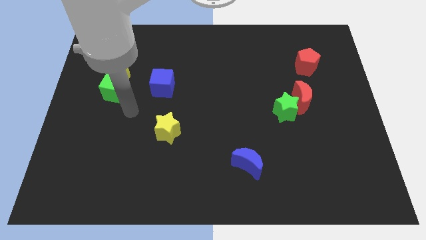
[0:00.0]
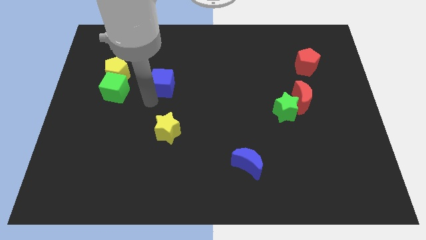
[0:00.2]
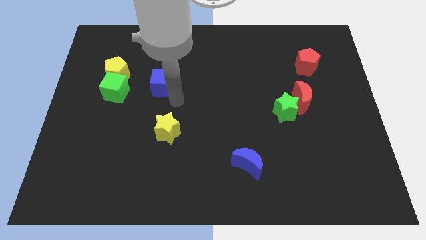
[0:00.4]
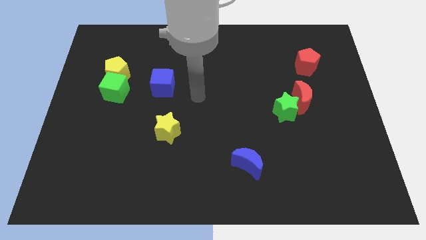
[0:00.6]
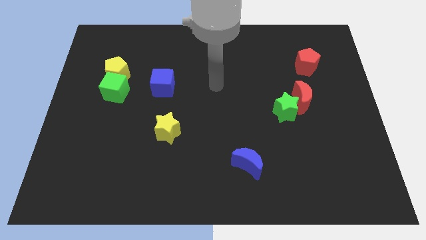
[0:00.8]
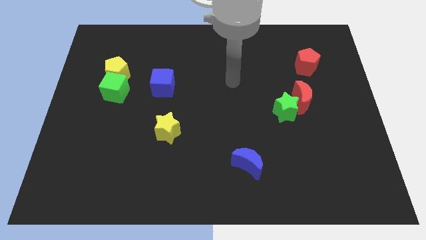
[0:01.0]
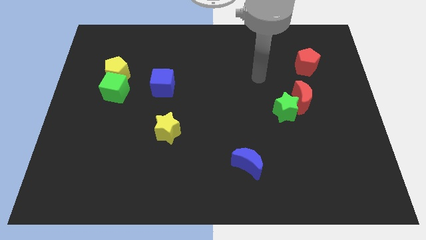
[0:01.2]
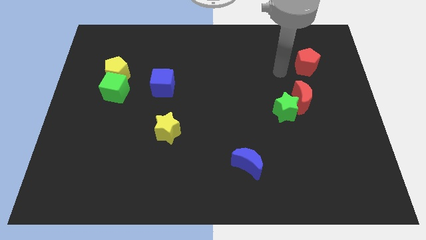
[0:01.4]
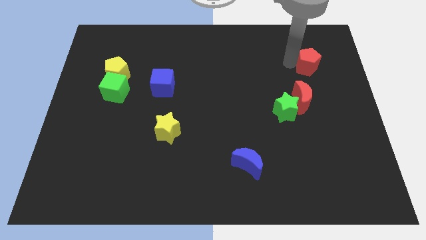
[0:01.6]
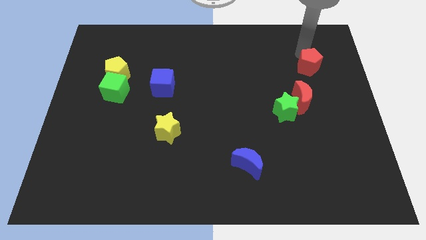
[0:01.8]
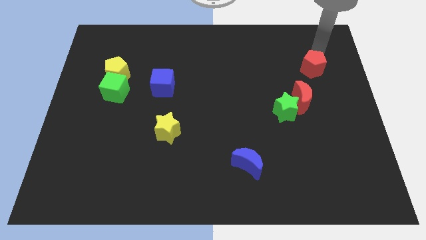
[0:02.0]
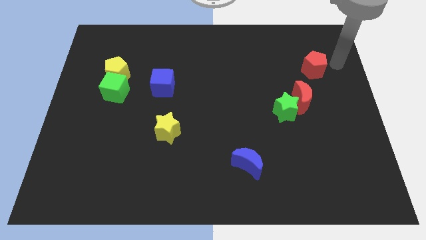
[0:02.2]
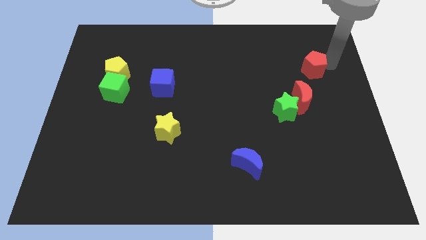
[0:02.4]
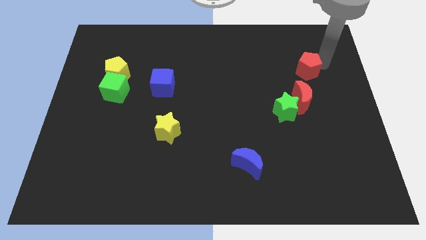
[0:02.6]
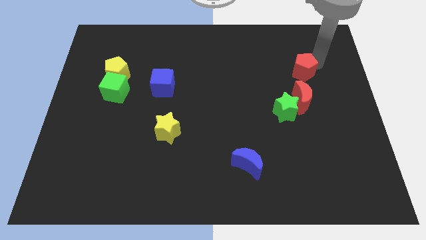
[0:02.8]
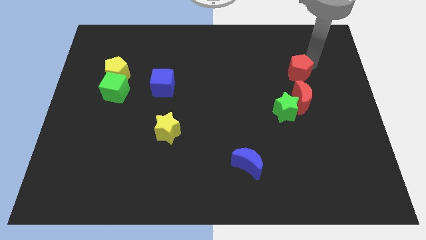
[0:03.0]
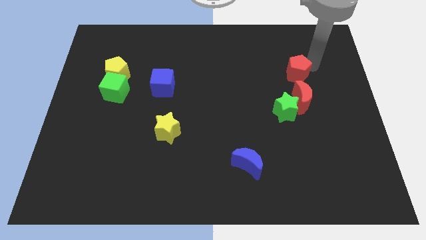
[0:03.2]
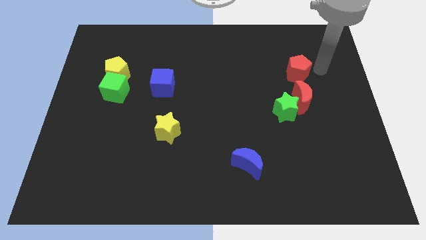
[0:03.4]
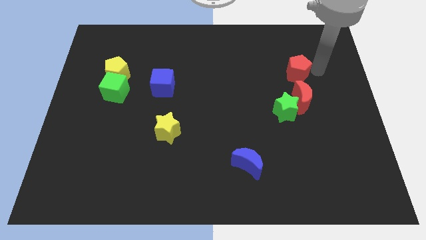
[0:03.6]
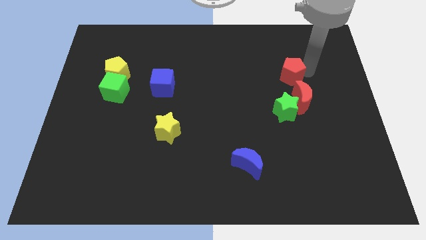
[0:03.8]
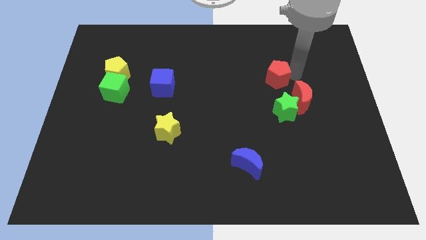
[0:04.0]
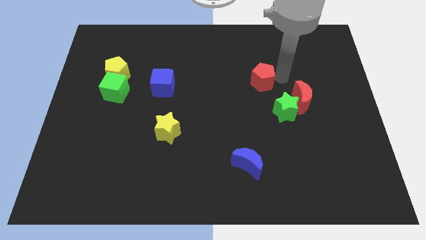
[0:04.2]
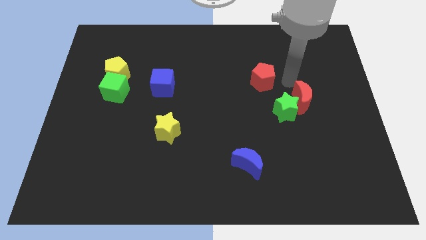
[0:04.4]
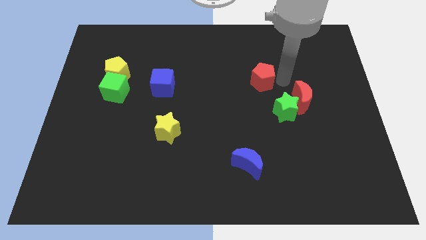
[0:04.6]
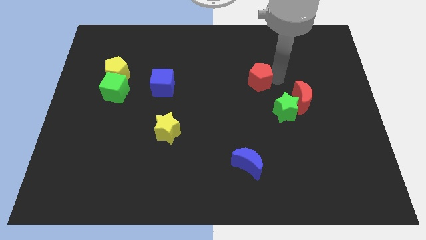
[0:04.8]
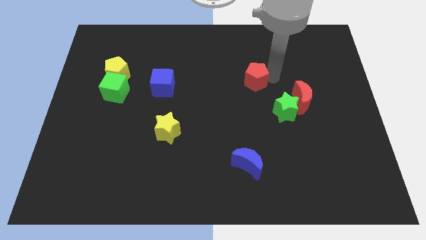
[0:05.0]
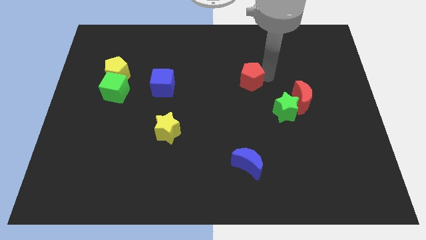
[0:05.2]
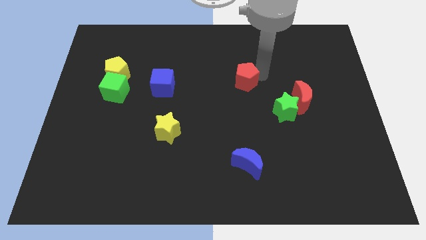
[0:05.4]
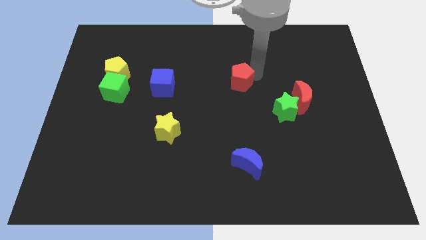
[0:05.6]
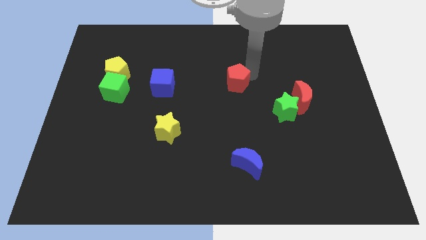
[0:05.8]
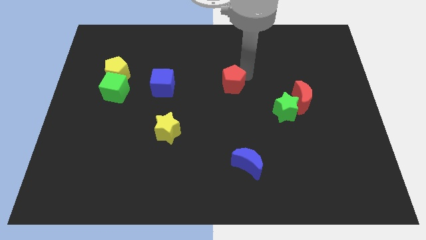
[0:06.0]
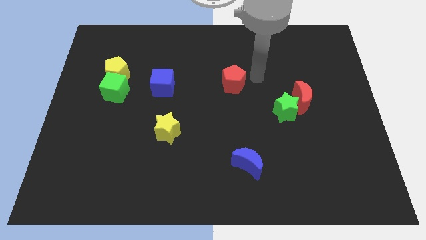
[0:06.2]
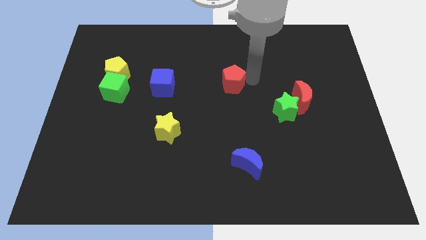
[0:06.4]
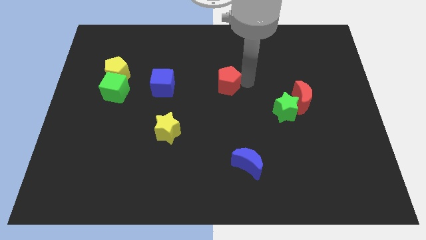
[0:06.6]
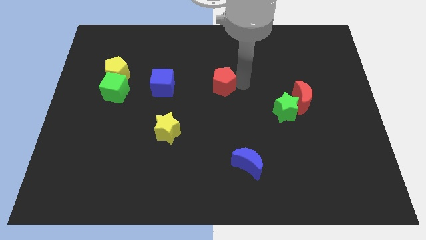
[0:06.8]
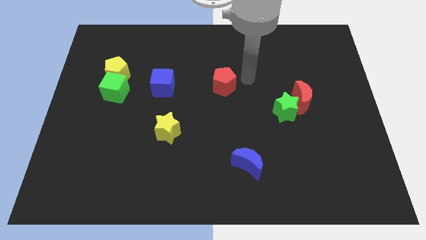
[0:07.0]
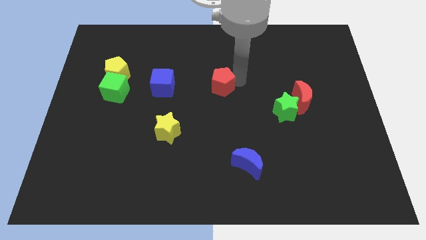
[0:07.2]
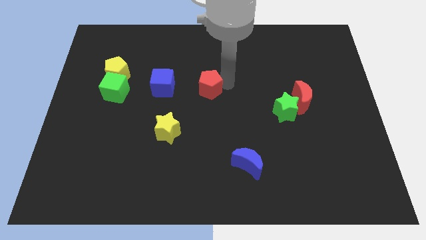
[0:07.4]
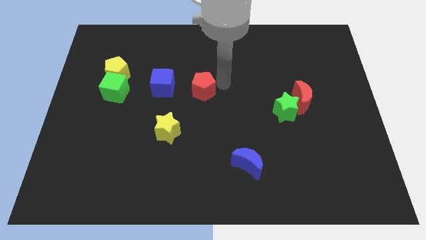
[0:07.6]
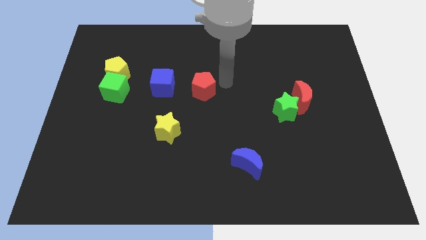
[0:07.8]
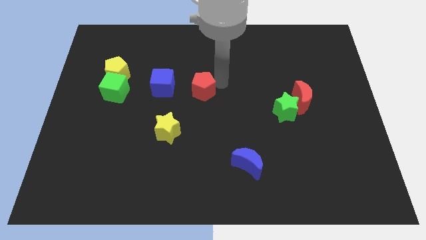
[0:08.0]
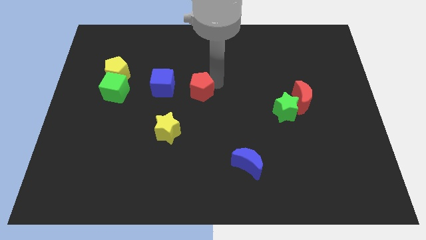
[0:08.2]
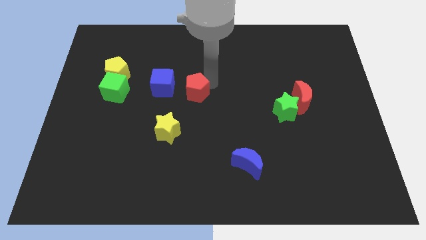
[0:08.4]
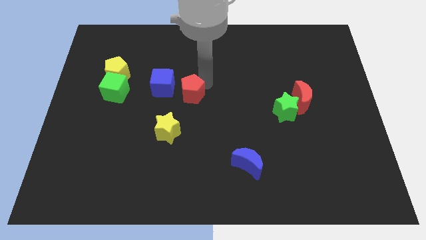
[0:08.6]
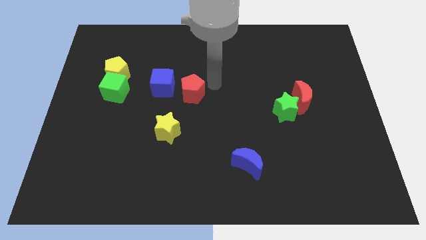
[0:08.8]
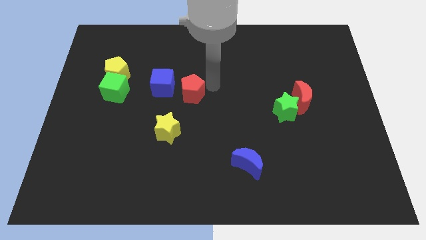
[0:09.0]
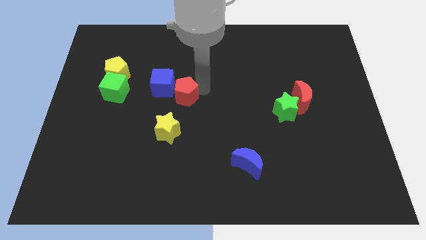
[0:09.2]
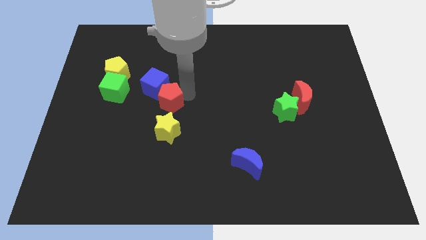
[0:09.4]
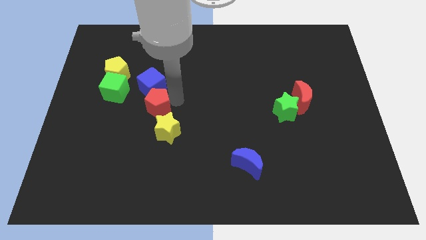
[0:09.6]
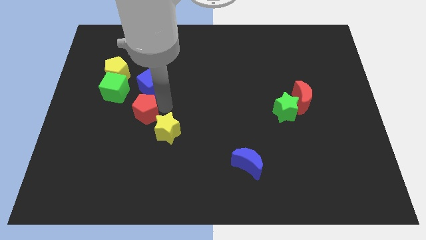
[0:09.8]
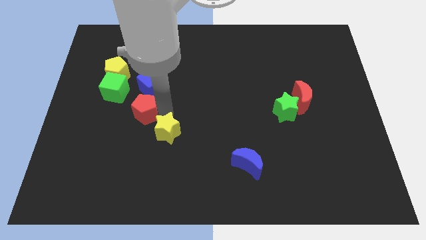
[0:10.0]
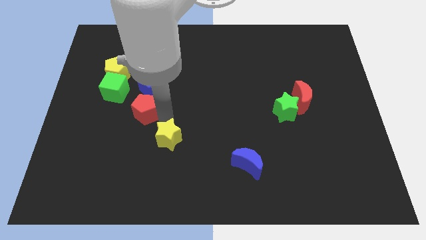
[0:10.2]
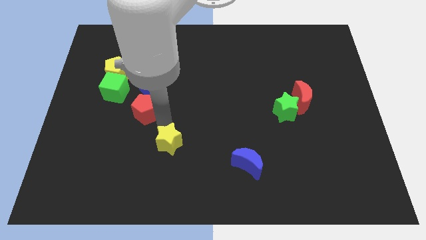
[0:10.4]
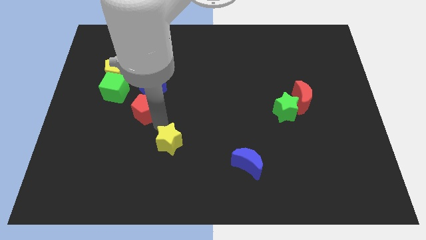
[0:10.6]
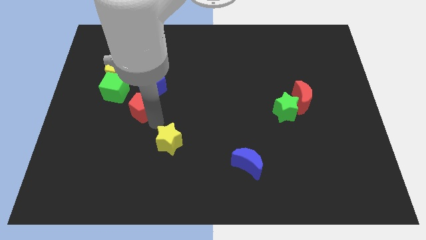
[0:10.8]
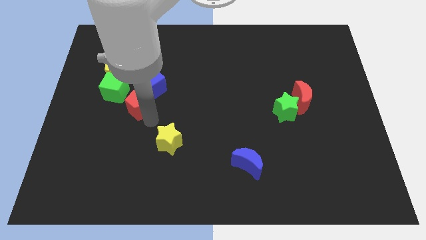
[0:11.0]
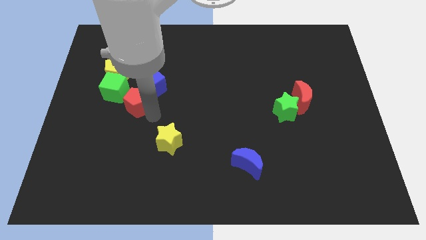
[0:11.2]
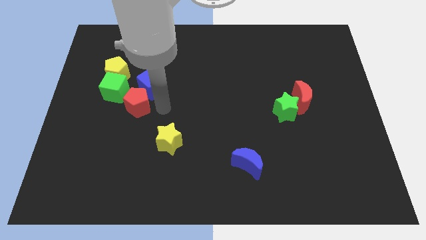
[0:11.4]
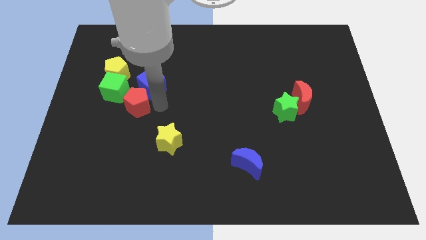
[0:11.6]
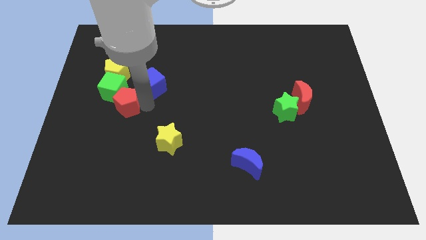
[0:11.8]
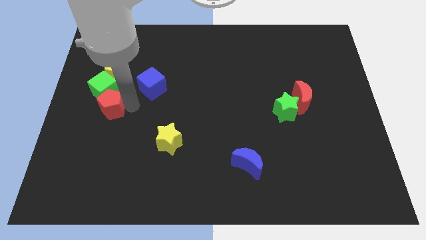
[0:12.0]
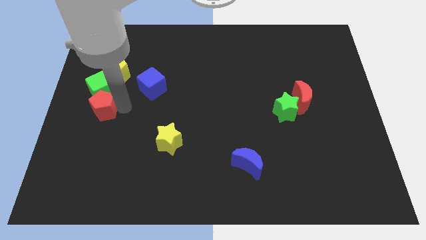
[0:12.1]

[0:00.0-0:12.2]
move the red pentagon to the left side of the board

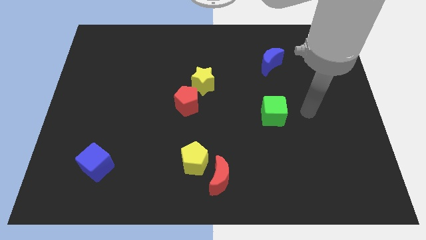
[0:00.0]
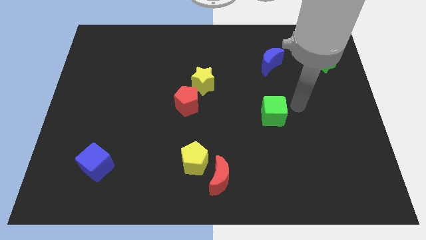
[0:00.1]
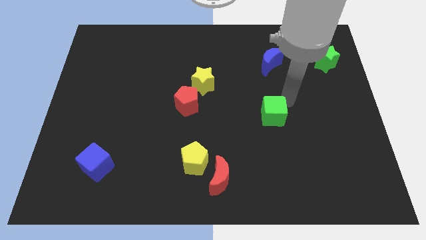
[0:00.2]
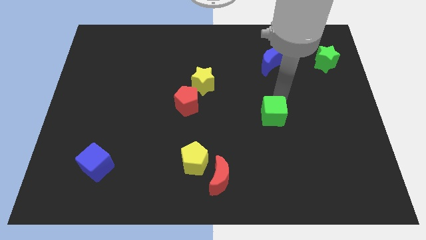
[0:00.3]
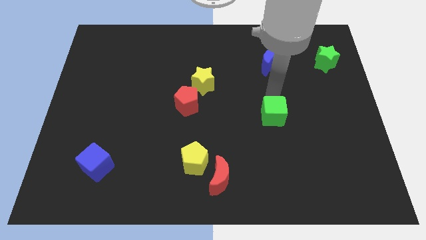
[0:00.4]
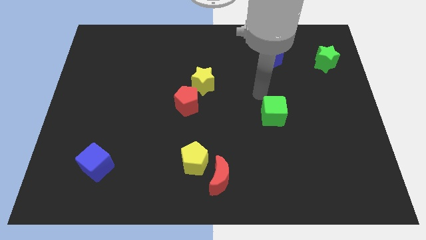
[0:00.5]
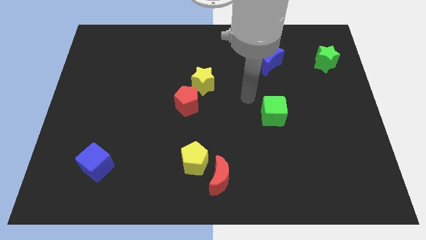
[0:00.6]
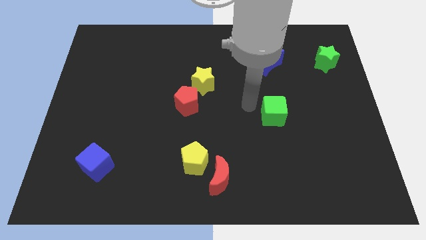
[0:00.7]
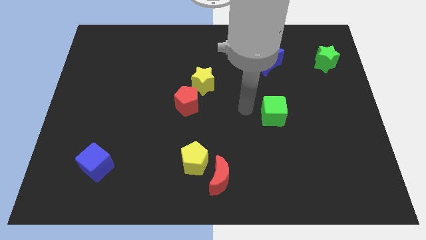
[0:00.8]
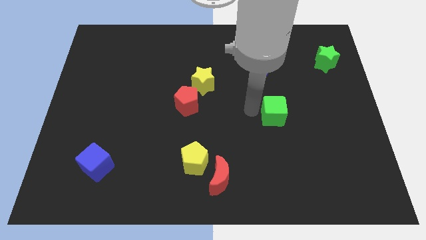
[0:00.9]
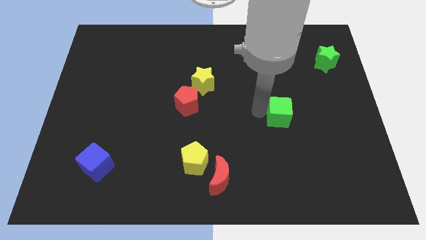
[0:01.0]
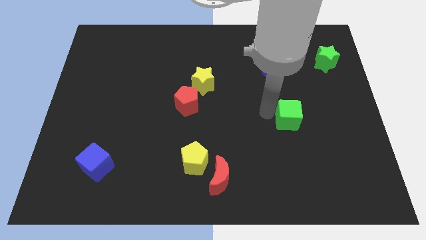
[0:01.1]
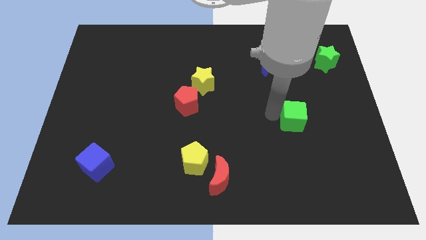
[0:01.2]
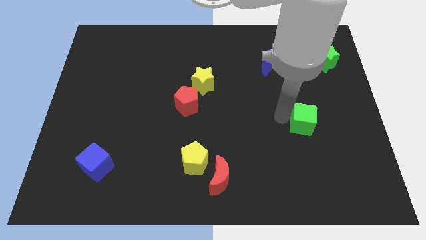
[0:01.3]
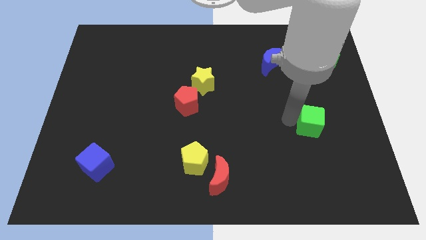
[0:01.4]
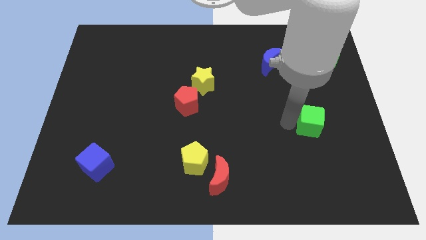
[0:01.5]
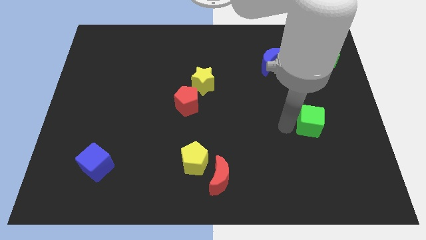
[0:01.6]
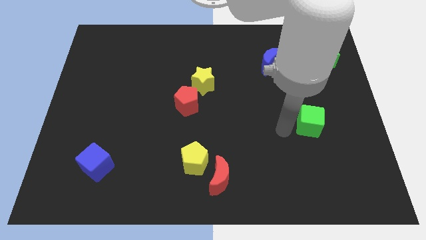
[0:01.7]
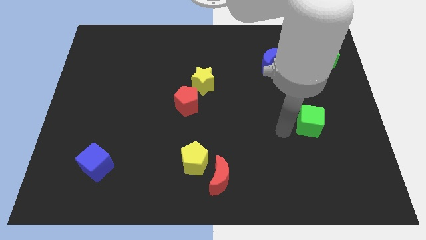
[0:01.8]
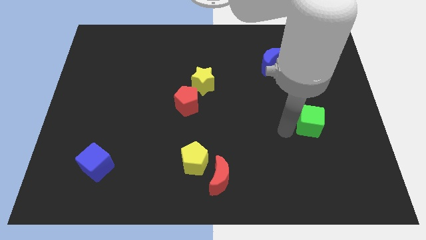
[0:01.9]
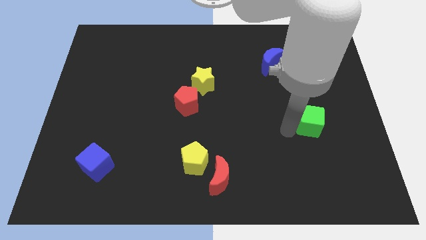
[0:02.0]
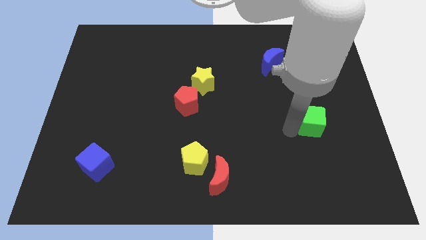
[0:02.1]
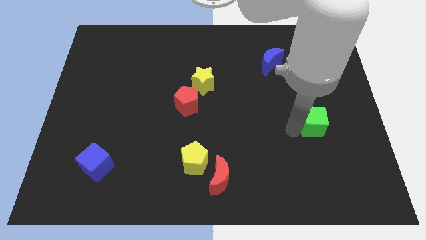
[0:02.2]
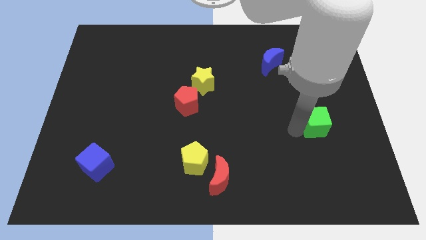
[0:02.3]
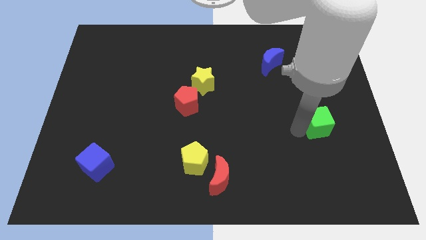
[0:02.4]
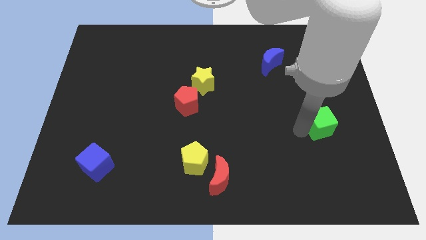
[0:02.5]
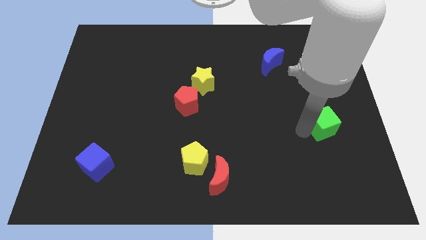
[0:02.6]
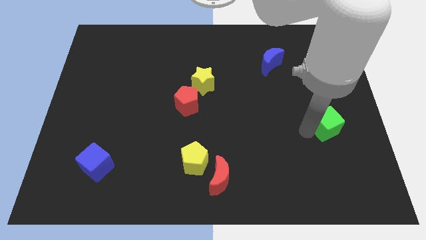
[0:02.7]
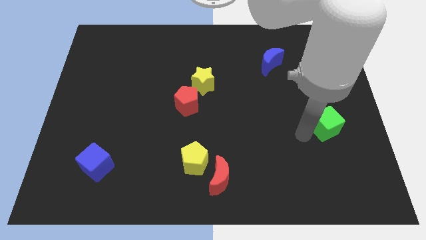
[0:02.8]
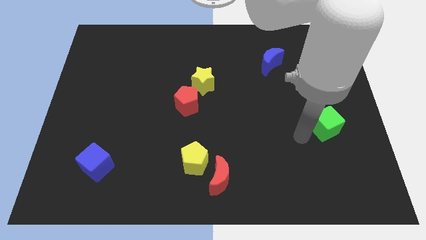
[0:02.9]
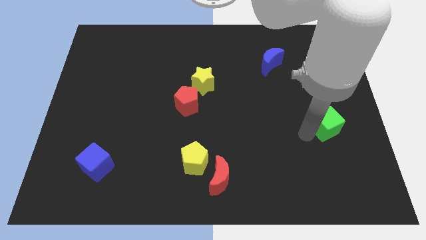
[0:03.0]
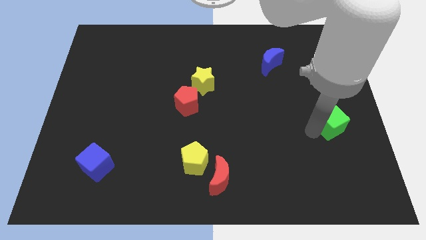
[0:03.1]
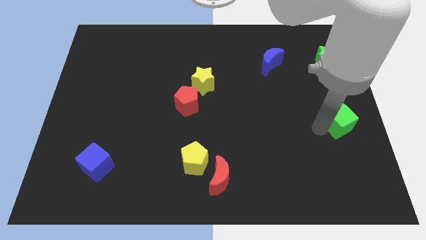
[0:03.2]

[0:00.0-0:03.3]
move the green cube to the center right
